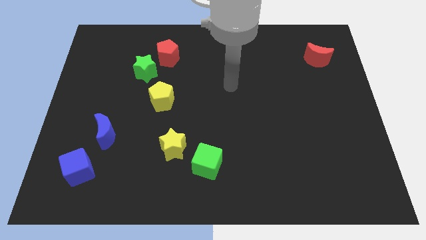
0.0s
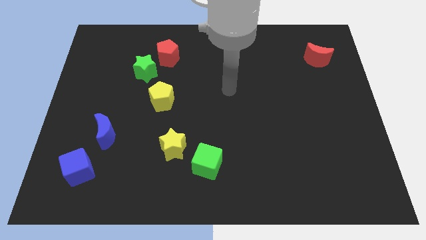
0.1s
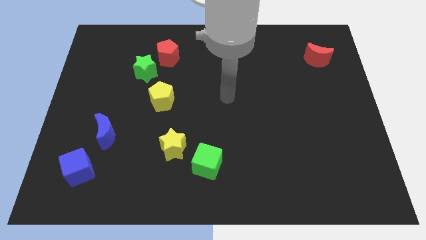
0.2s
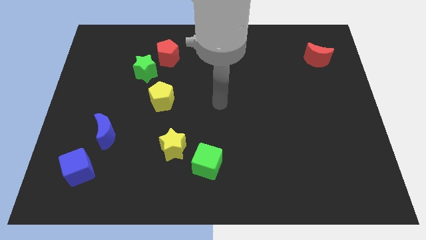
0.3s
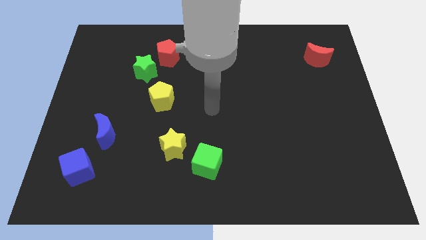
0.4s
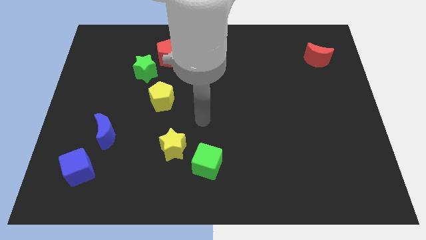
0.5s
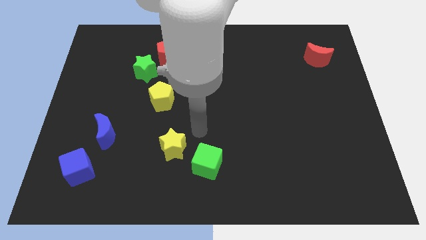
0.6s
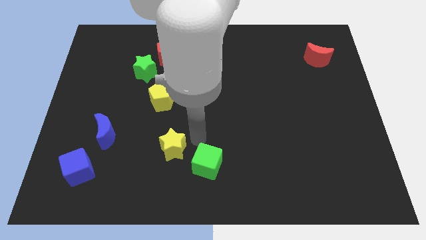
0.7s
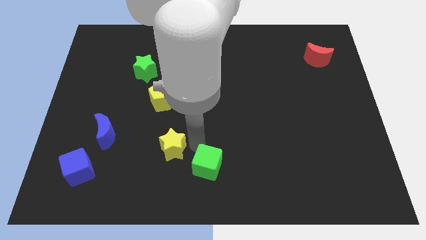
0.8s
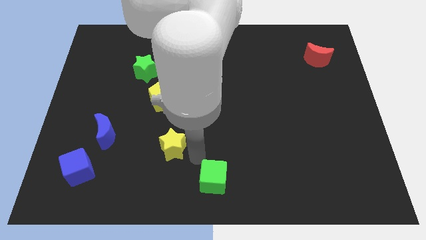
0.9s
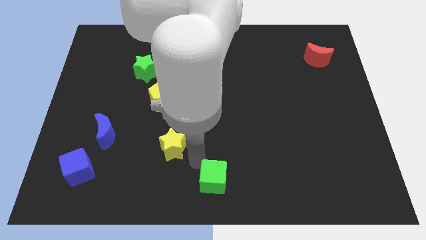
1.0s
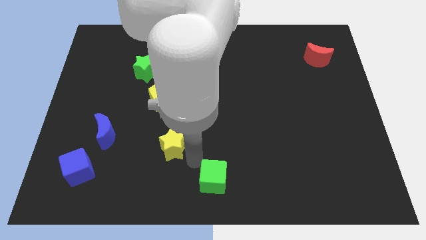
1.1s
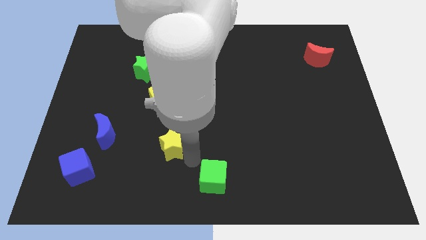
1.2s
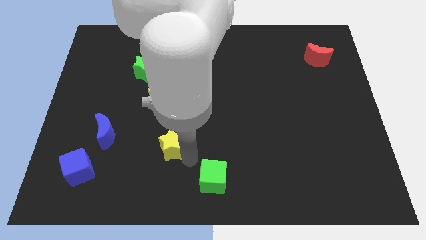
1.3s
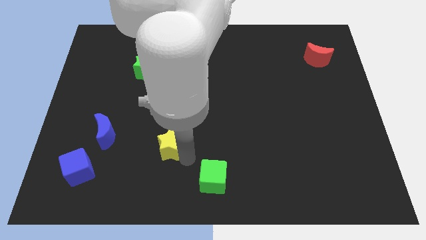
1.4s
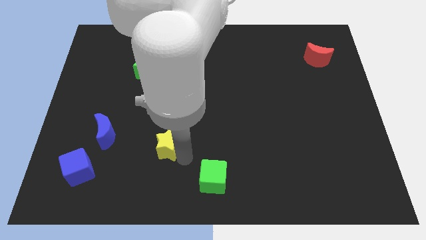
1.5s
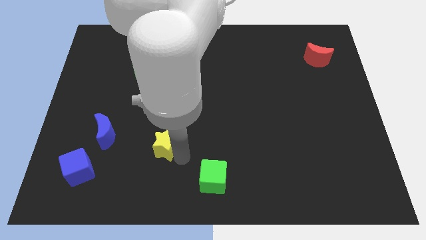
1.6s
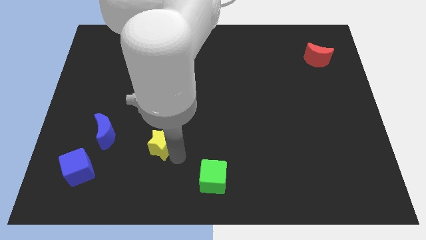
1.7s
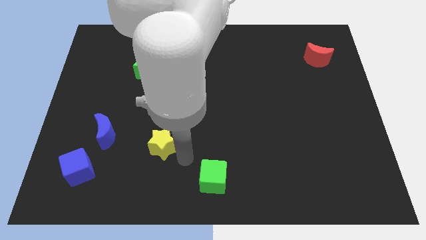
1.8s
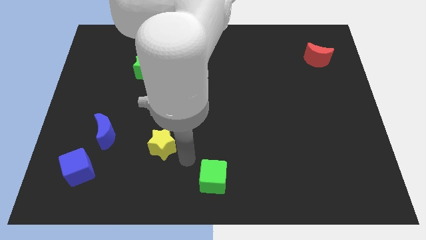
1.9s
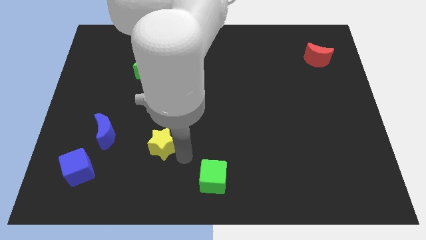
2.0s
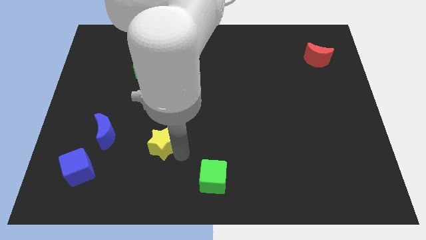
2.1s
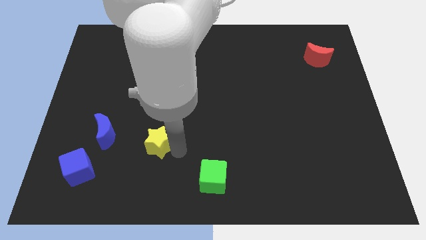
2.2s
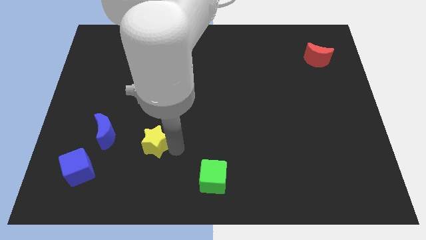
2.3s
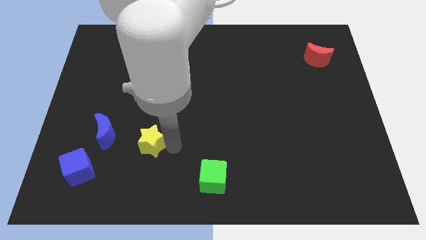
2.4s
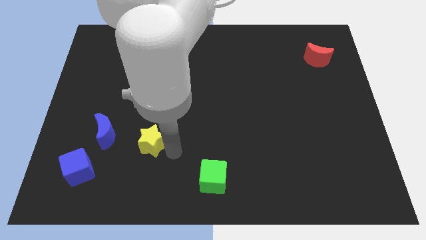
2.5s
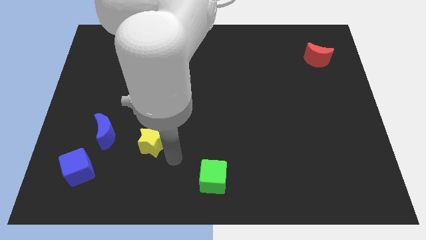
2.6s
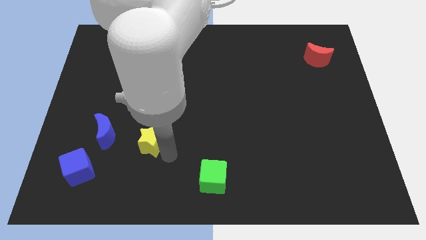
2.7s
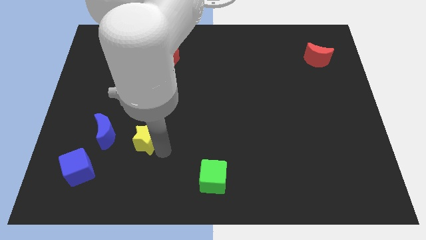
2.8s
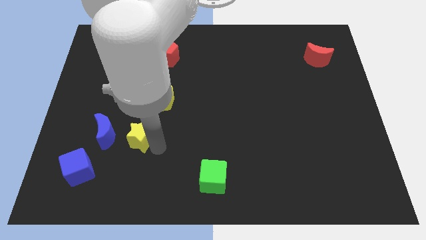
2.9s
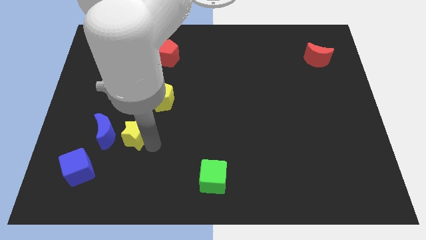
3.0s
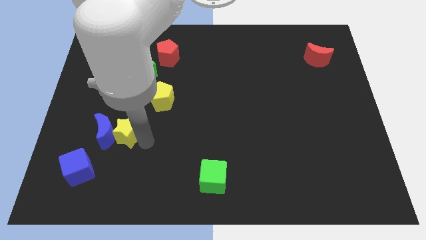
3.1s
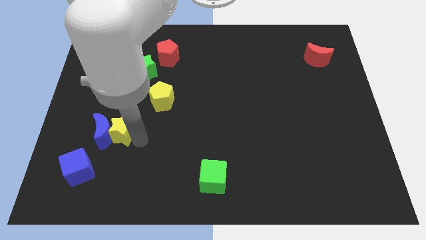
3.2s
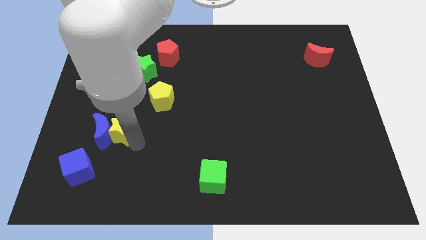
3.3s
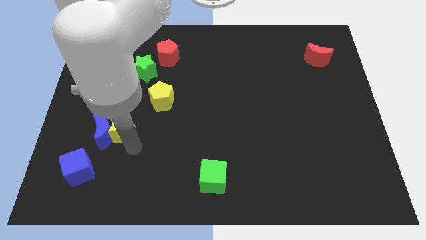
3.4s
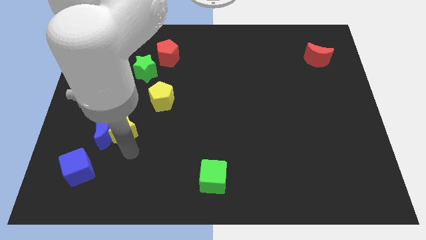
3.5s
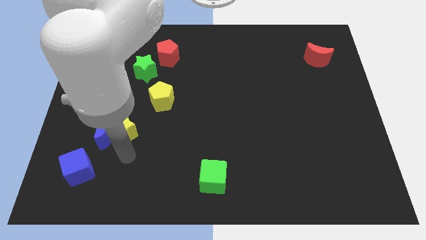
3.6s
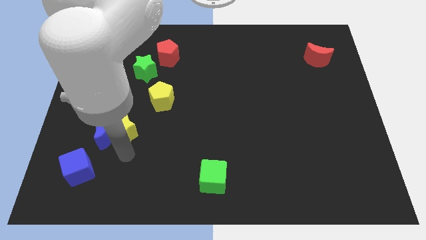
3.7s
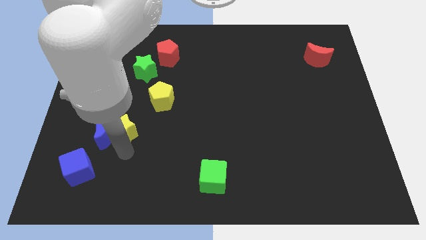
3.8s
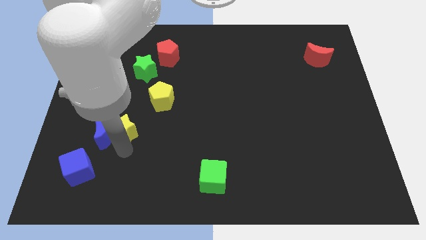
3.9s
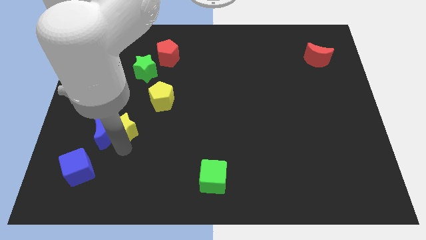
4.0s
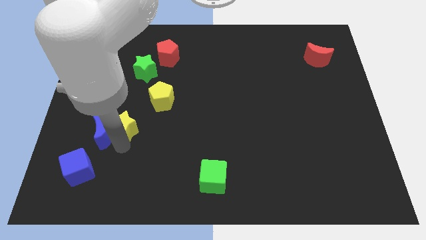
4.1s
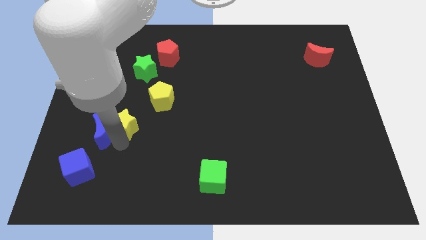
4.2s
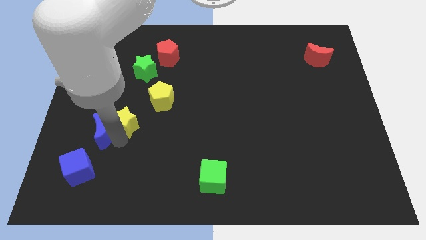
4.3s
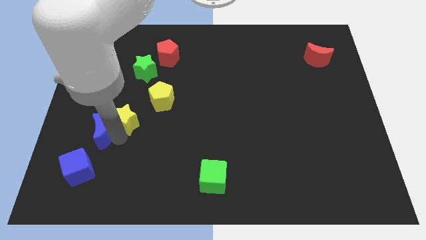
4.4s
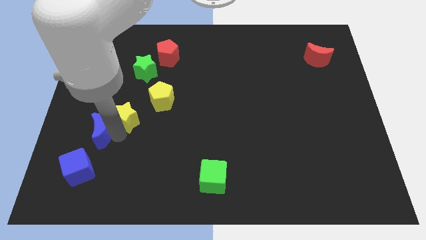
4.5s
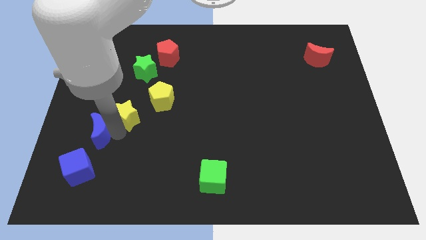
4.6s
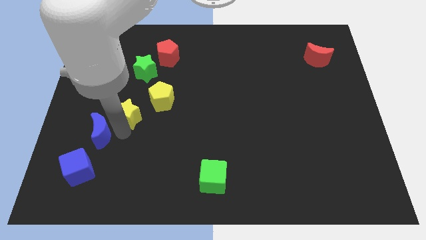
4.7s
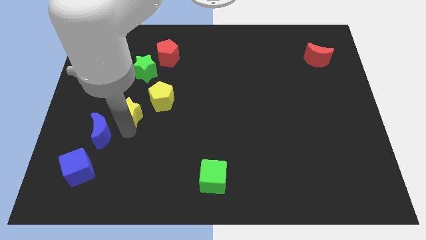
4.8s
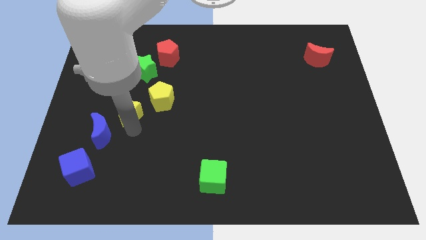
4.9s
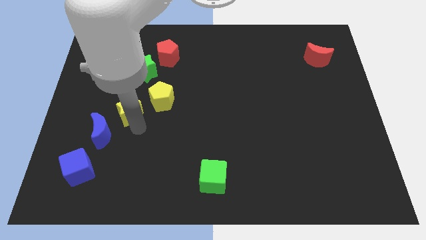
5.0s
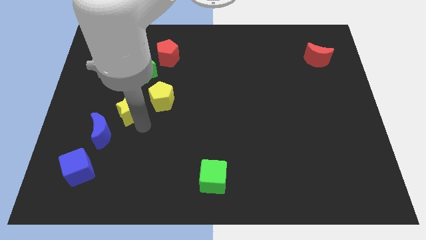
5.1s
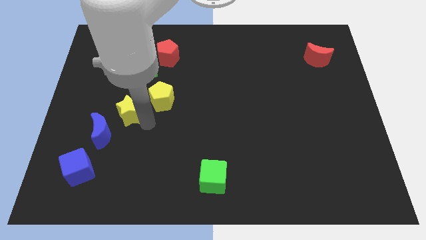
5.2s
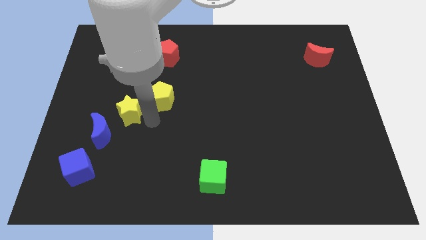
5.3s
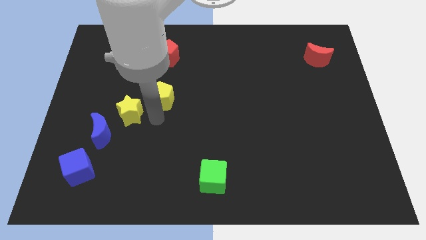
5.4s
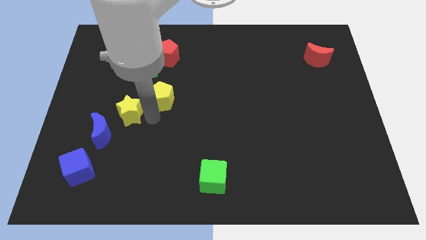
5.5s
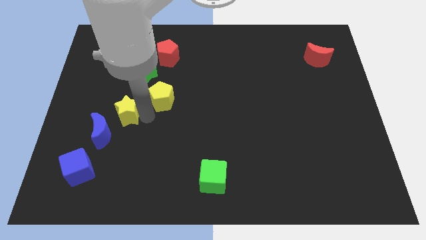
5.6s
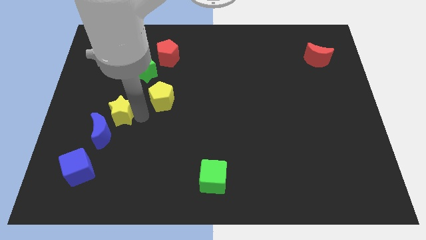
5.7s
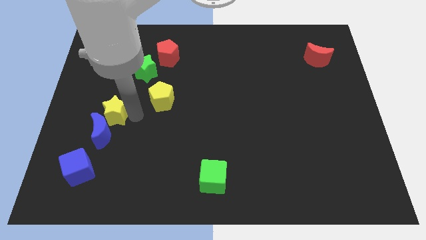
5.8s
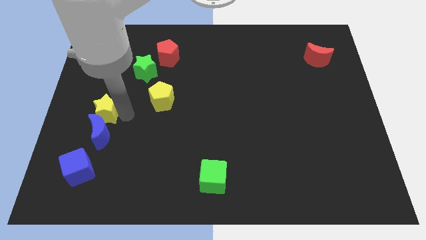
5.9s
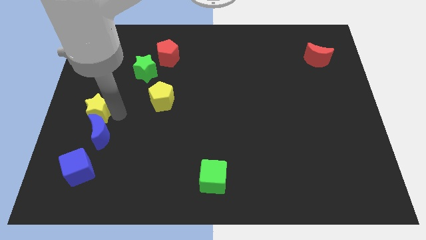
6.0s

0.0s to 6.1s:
move the yellow star to the left side
